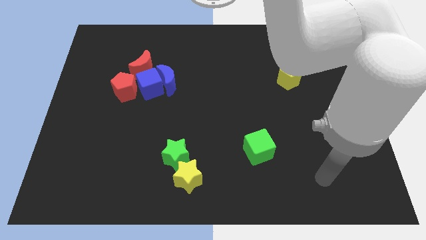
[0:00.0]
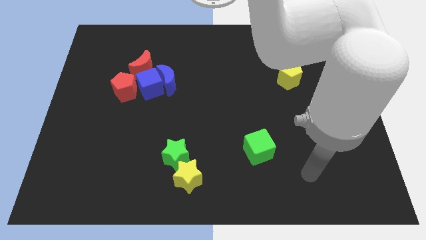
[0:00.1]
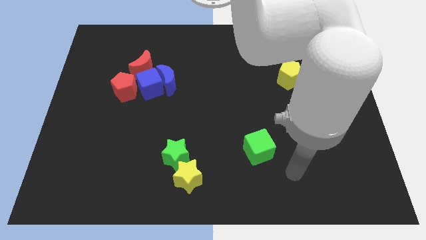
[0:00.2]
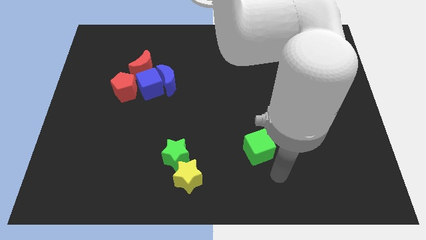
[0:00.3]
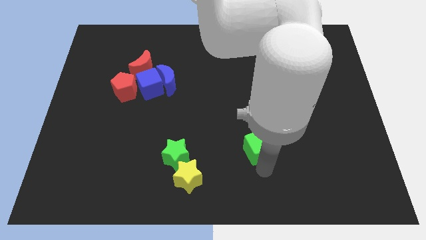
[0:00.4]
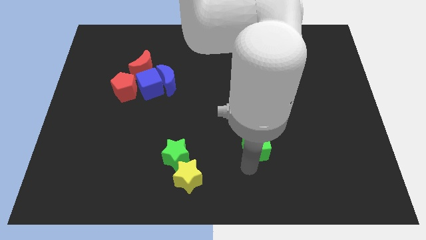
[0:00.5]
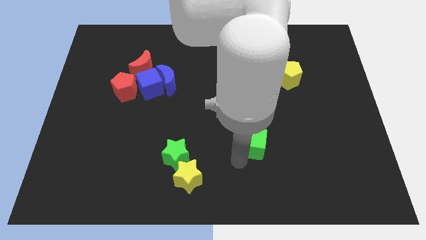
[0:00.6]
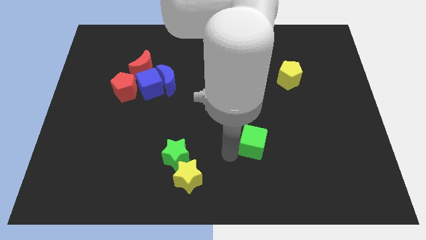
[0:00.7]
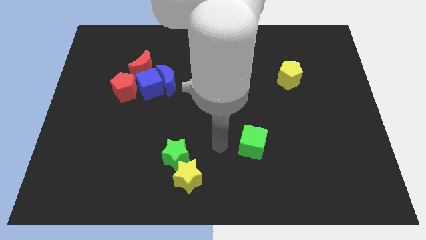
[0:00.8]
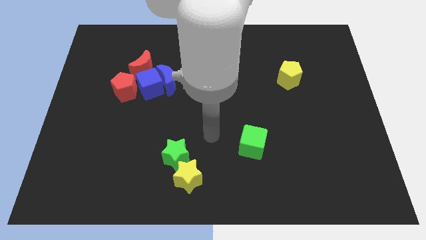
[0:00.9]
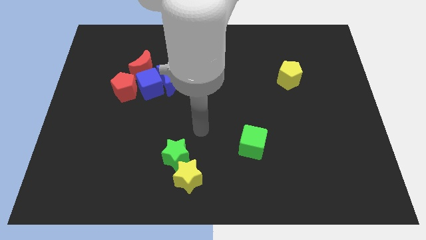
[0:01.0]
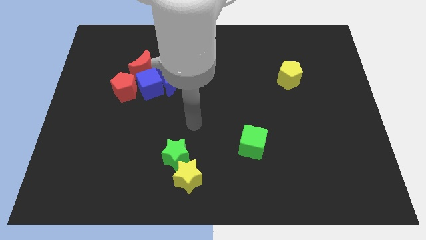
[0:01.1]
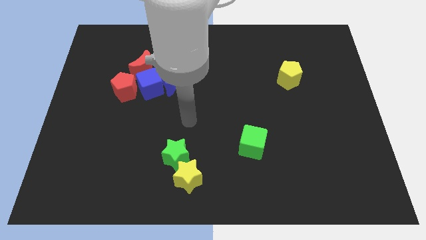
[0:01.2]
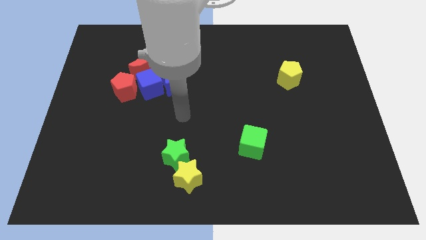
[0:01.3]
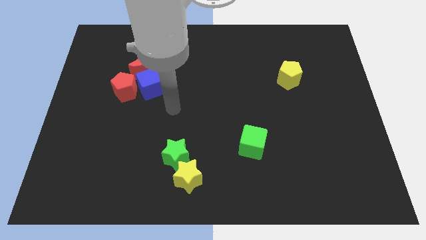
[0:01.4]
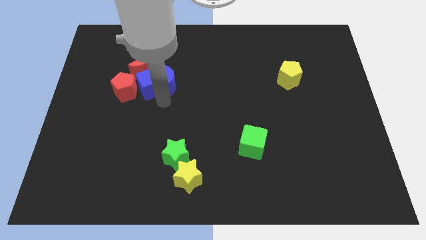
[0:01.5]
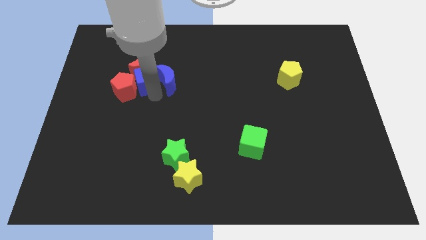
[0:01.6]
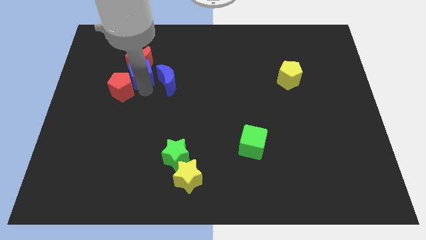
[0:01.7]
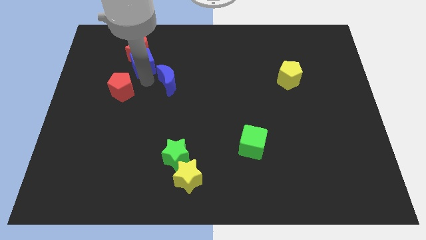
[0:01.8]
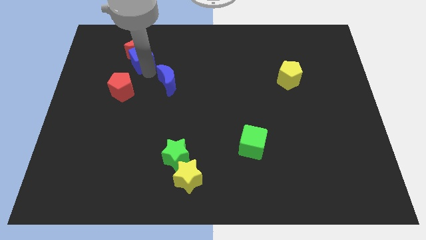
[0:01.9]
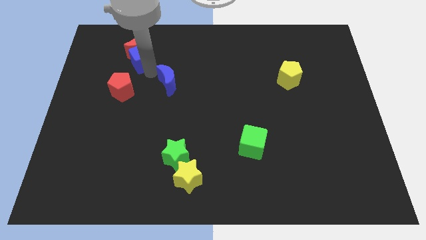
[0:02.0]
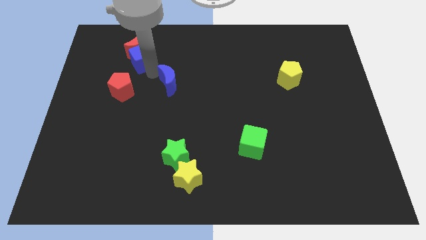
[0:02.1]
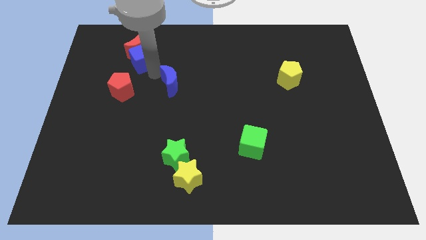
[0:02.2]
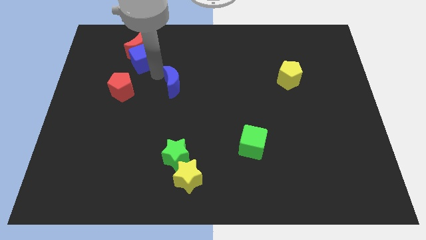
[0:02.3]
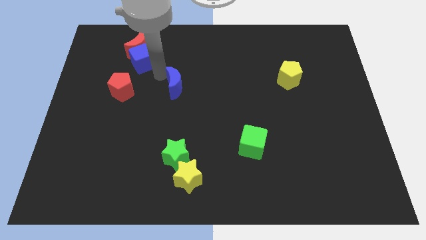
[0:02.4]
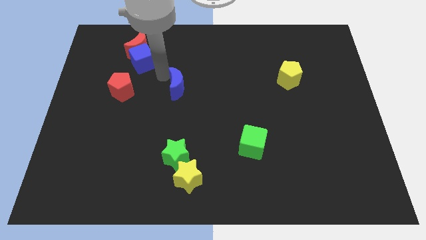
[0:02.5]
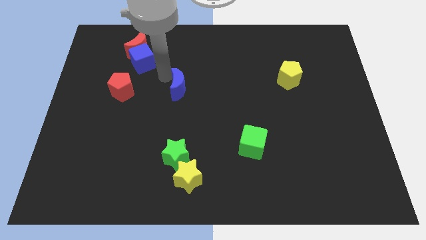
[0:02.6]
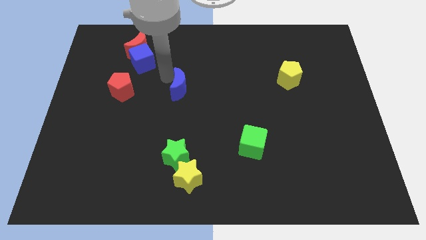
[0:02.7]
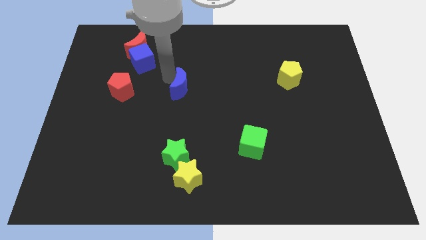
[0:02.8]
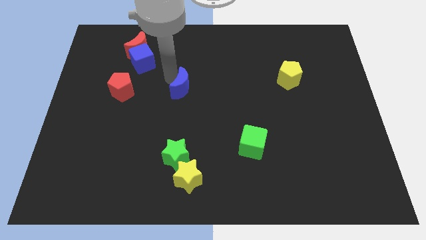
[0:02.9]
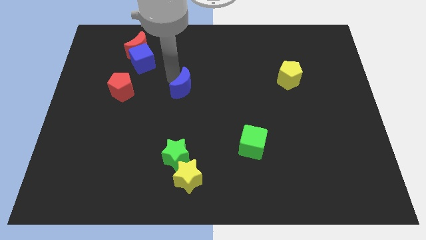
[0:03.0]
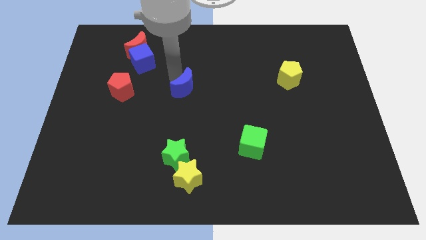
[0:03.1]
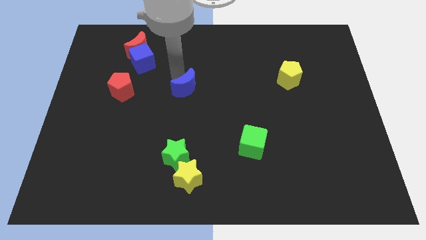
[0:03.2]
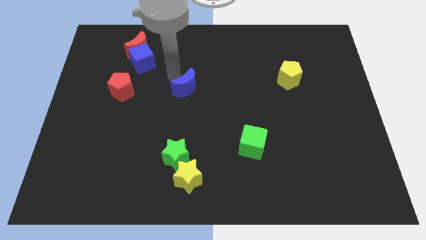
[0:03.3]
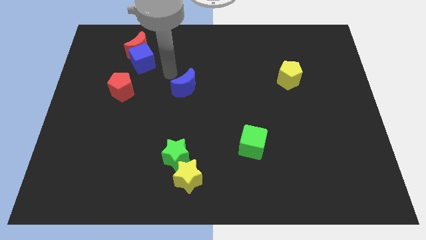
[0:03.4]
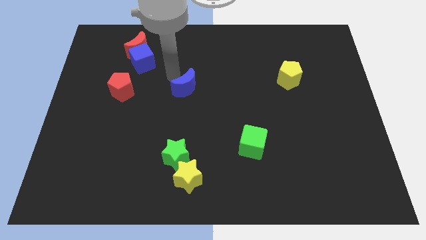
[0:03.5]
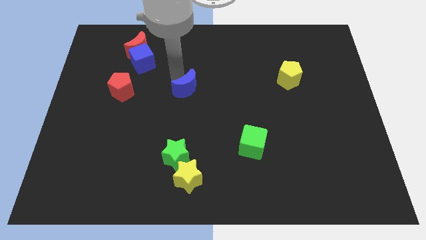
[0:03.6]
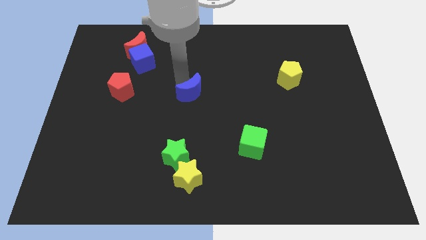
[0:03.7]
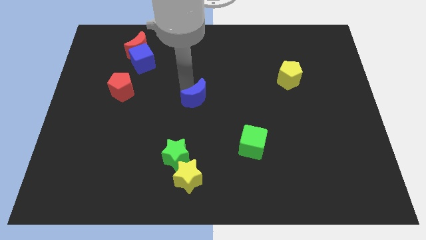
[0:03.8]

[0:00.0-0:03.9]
slightly move the blue moon diagonally downwards and to the right

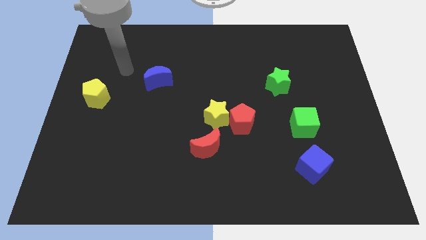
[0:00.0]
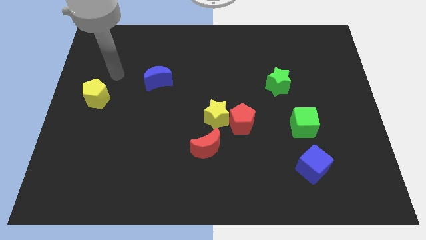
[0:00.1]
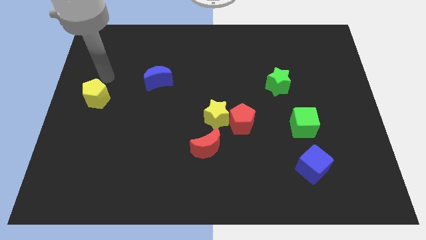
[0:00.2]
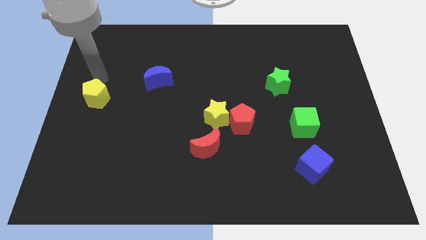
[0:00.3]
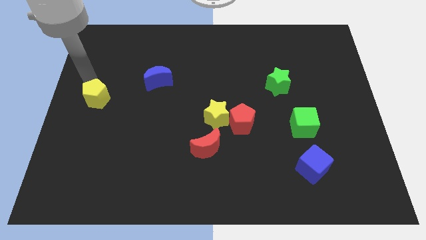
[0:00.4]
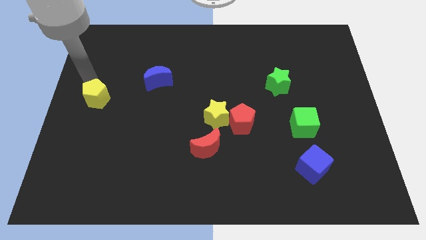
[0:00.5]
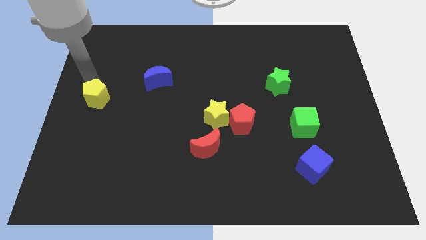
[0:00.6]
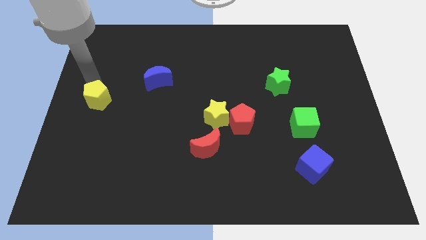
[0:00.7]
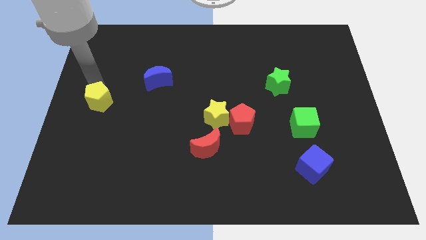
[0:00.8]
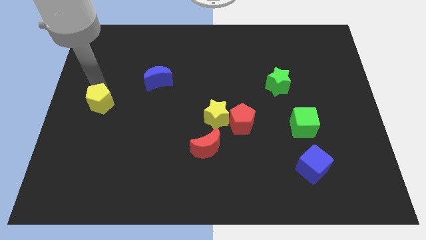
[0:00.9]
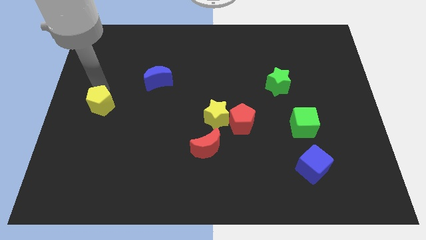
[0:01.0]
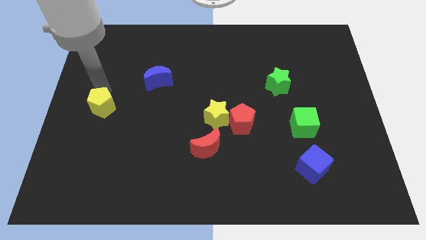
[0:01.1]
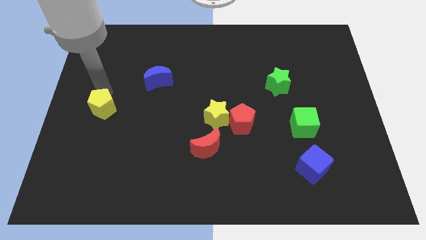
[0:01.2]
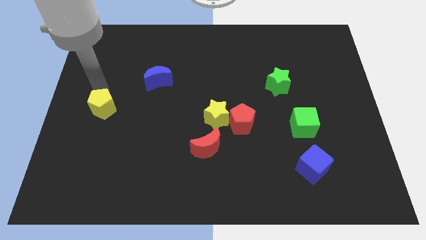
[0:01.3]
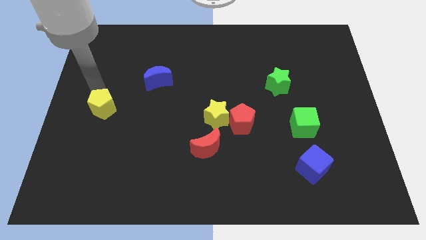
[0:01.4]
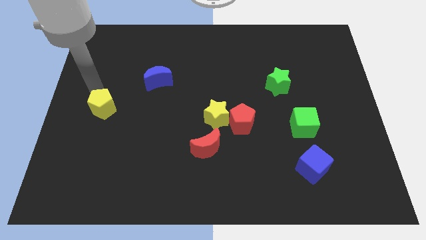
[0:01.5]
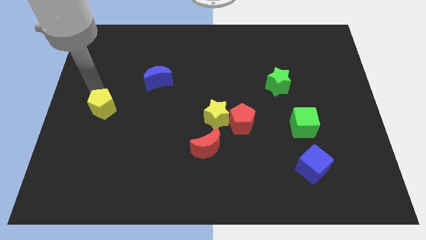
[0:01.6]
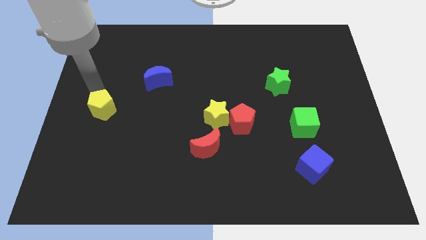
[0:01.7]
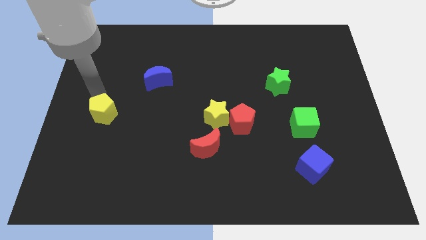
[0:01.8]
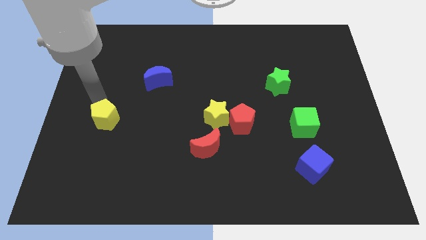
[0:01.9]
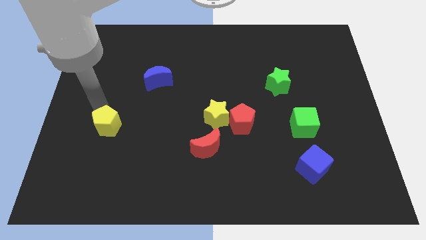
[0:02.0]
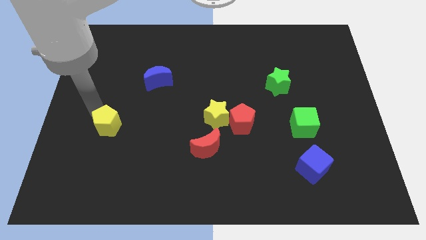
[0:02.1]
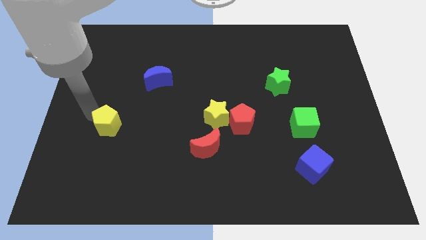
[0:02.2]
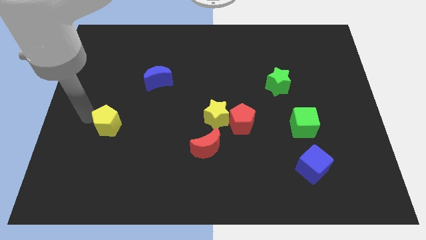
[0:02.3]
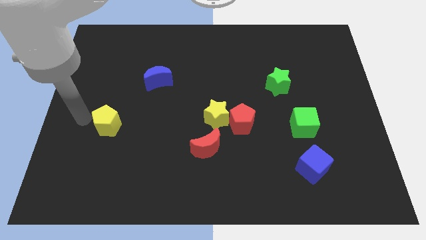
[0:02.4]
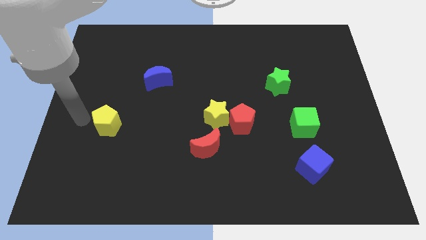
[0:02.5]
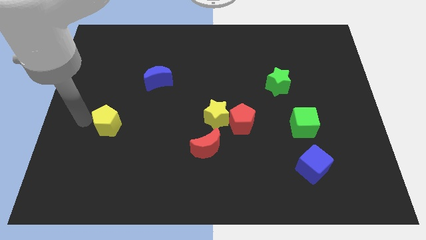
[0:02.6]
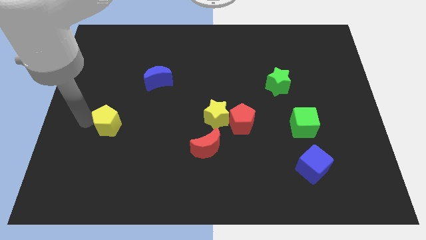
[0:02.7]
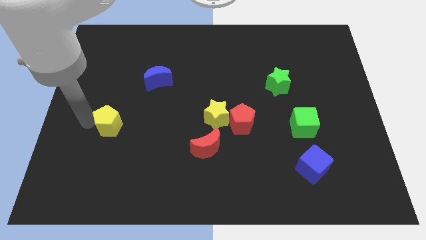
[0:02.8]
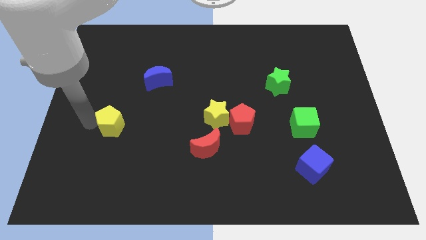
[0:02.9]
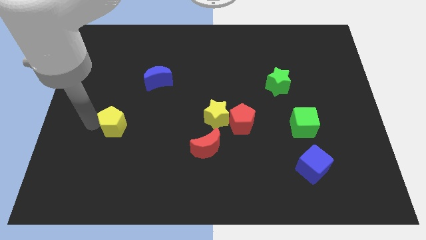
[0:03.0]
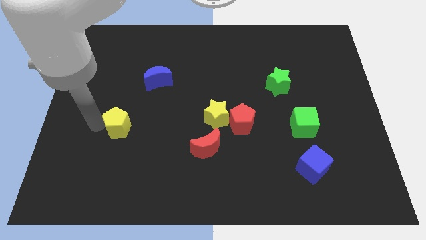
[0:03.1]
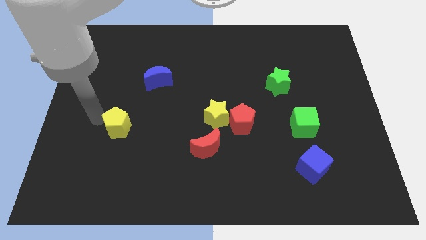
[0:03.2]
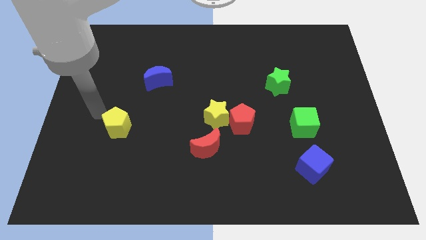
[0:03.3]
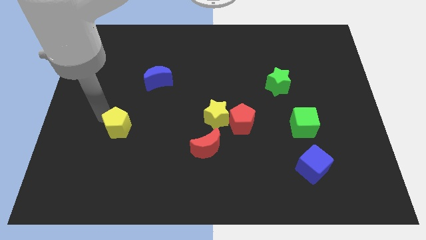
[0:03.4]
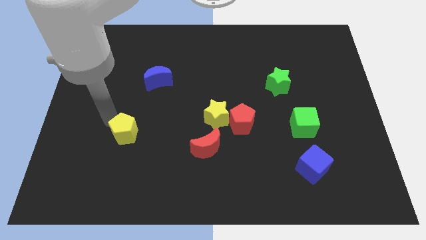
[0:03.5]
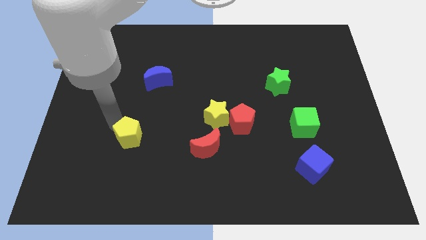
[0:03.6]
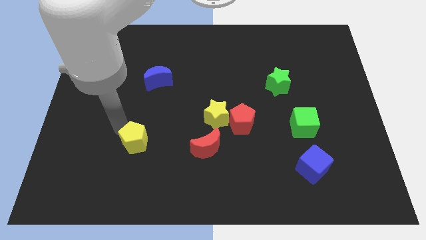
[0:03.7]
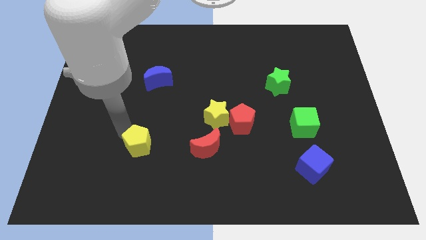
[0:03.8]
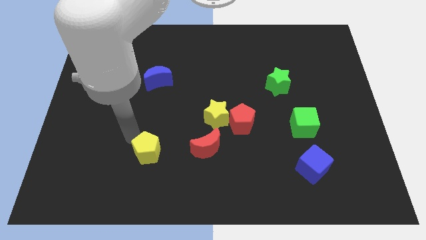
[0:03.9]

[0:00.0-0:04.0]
move the yellow pentagon down and right

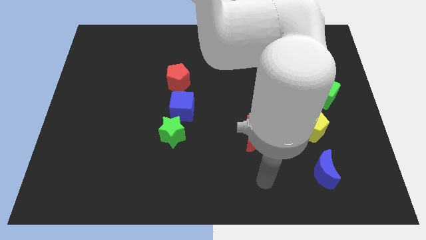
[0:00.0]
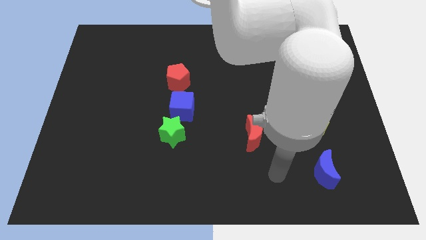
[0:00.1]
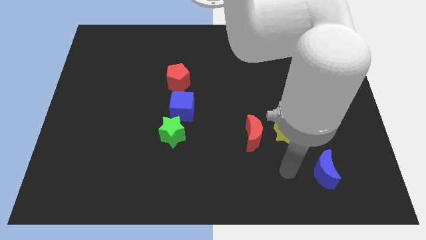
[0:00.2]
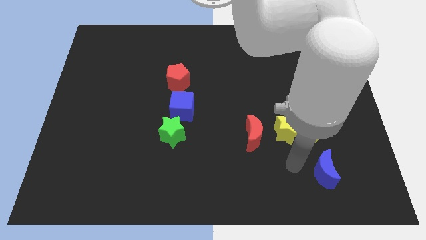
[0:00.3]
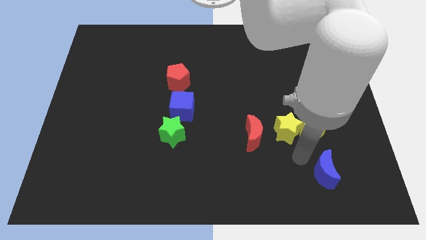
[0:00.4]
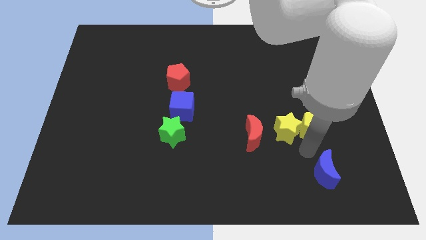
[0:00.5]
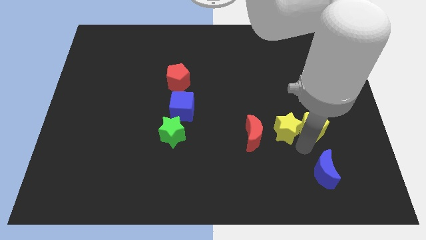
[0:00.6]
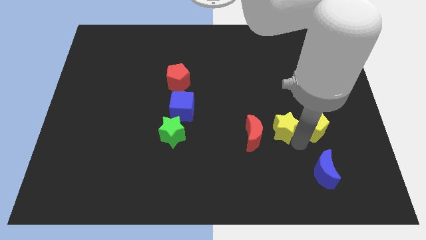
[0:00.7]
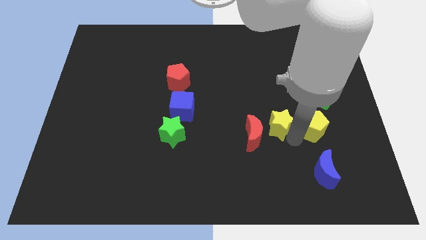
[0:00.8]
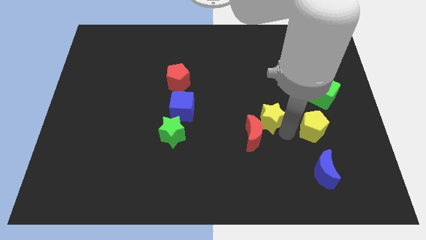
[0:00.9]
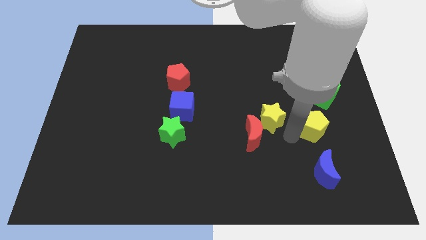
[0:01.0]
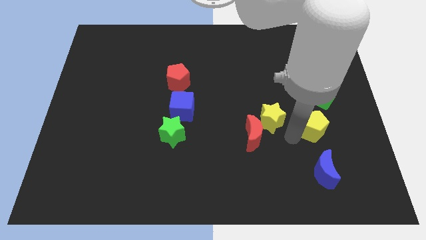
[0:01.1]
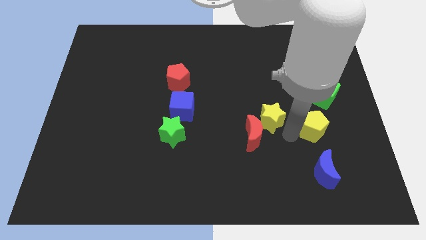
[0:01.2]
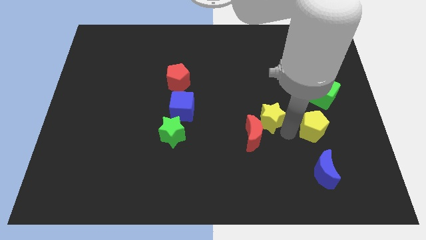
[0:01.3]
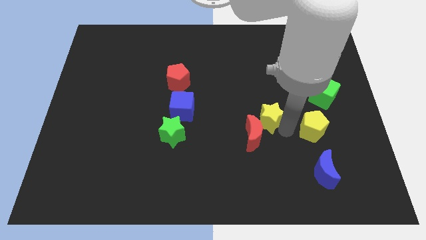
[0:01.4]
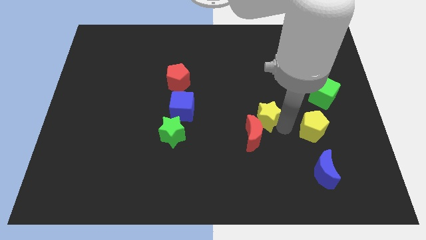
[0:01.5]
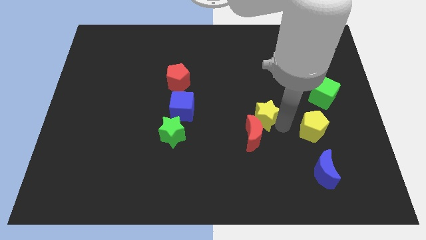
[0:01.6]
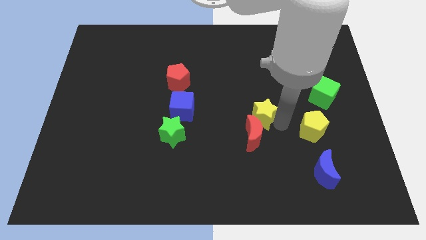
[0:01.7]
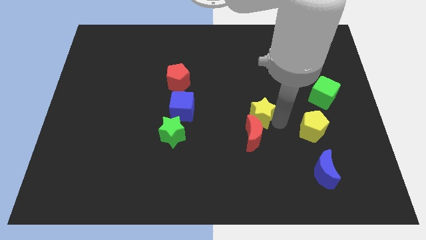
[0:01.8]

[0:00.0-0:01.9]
move the yellow star up and left diagonally somewhat
